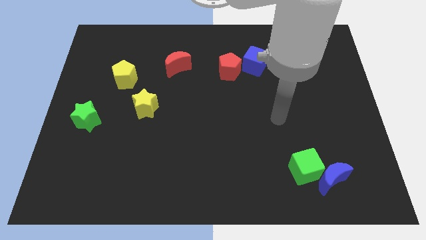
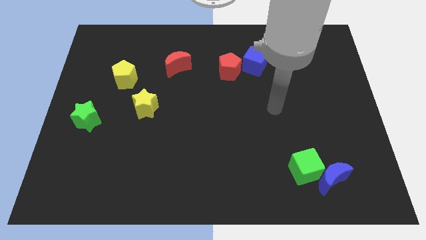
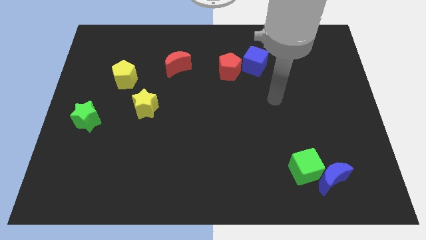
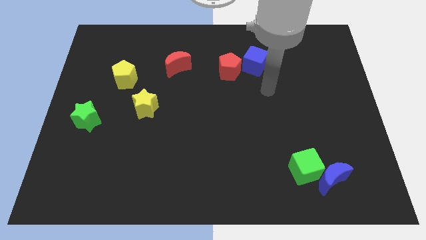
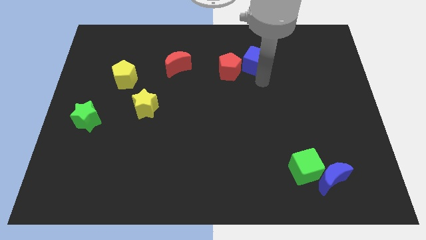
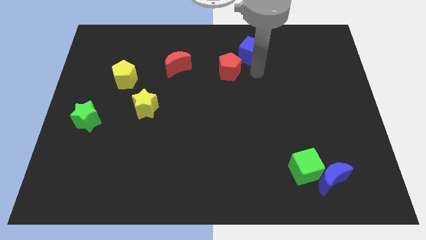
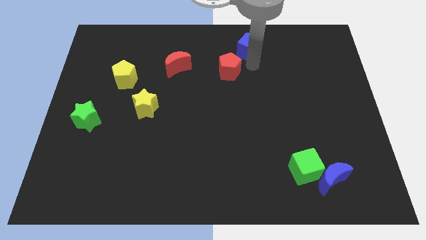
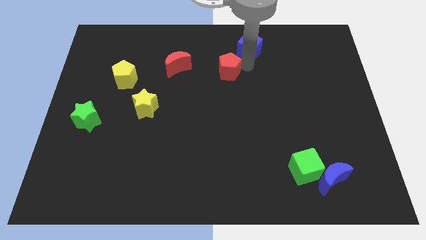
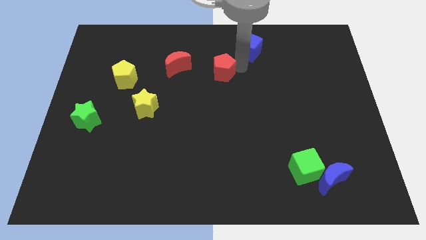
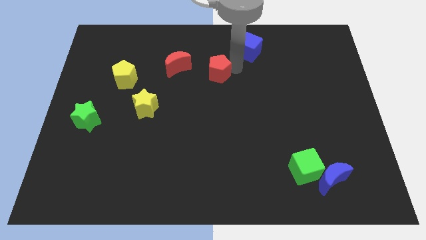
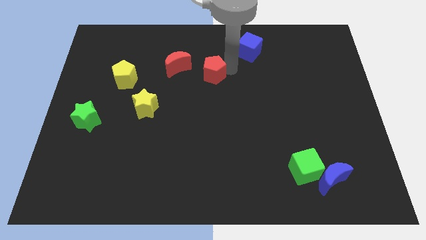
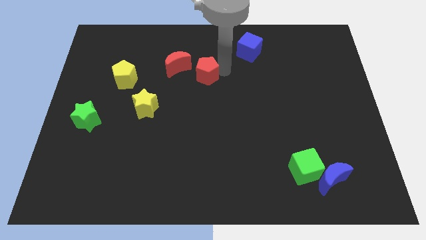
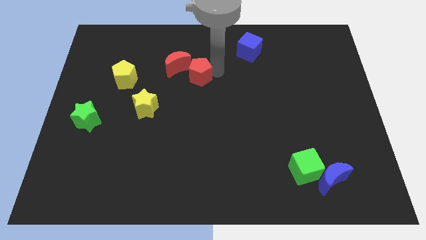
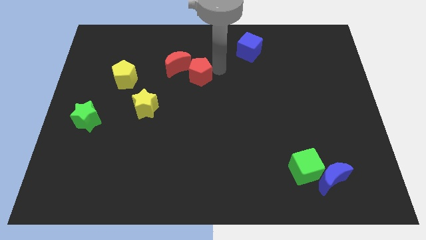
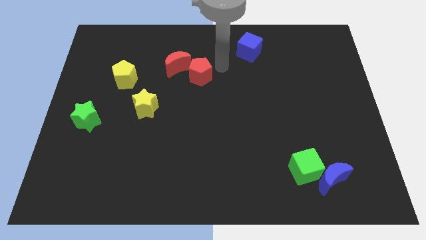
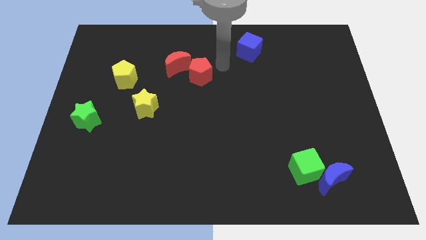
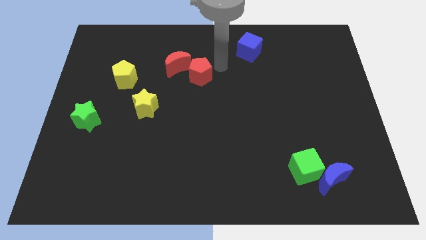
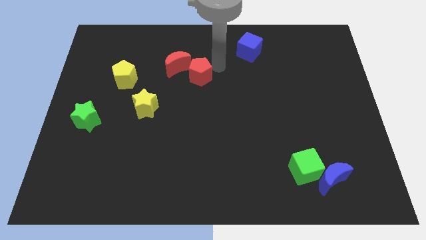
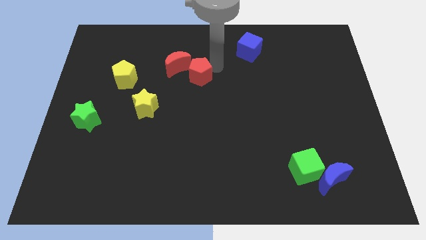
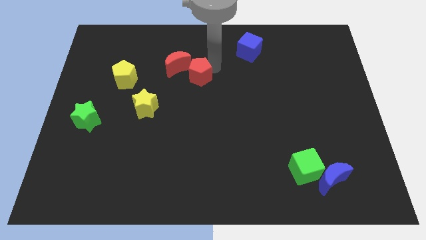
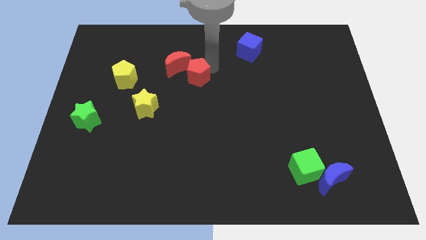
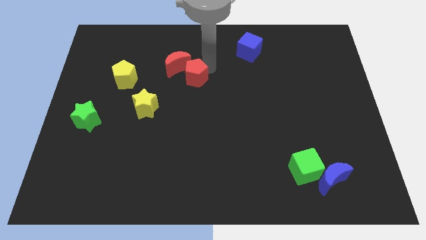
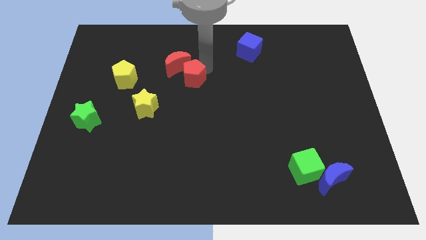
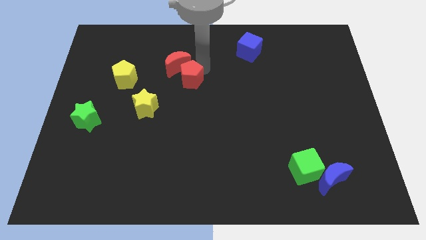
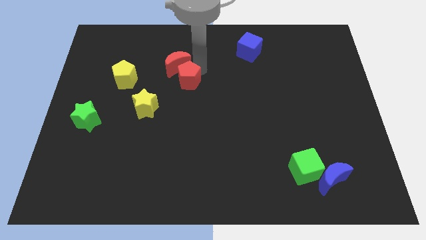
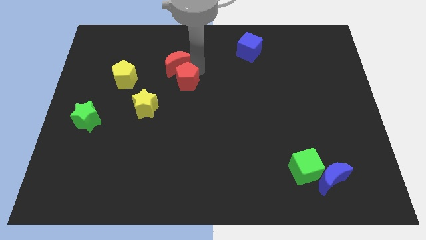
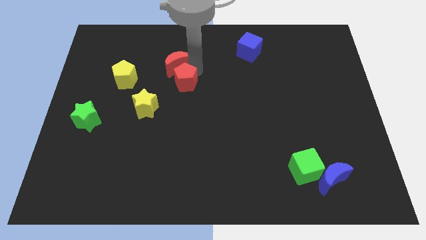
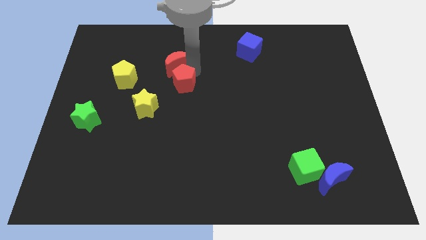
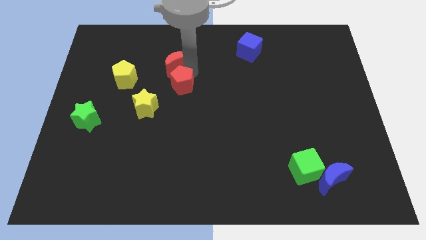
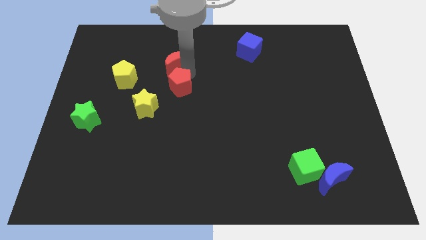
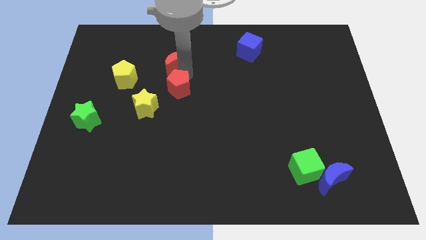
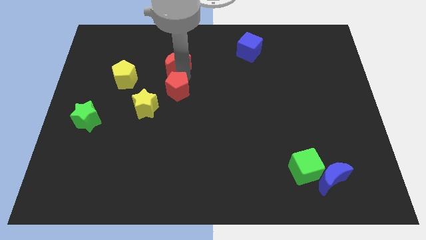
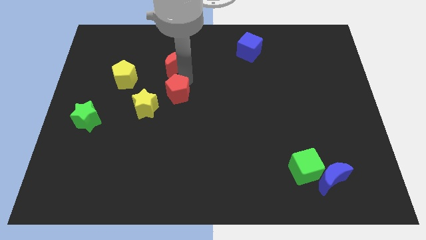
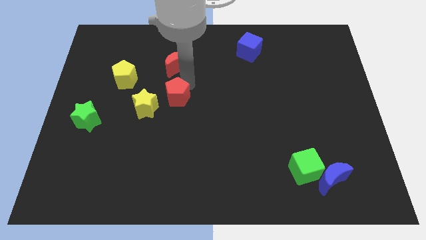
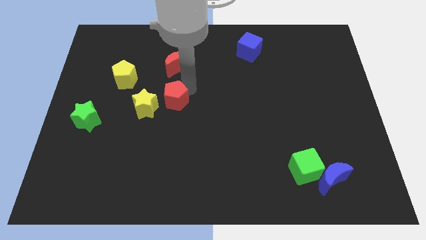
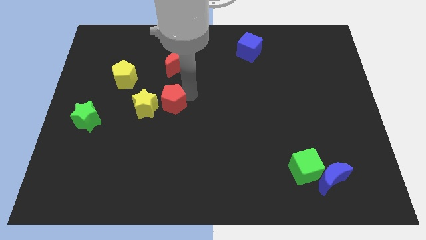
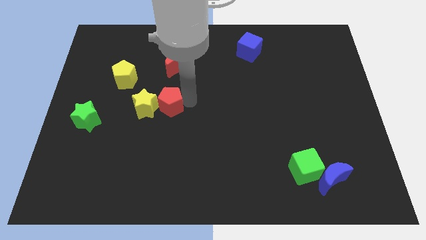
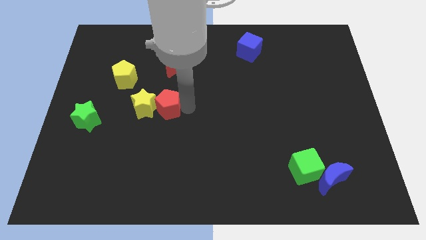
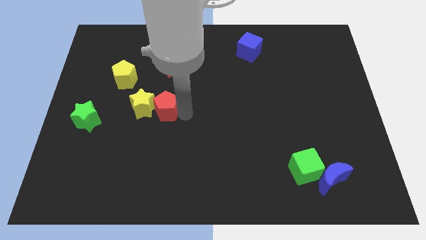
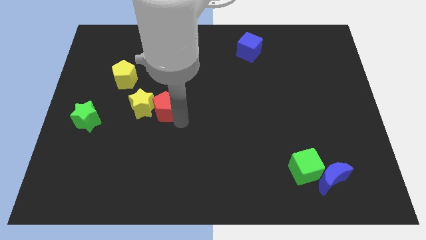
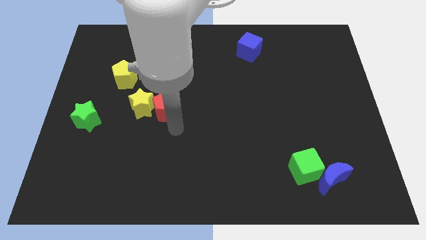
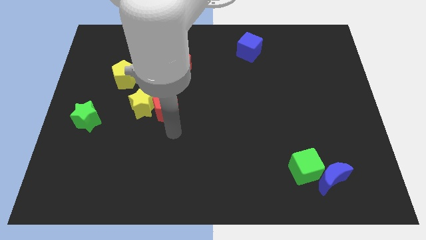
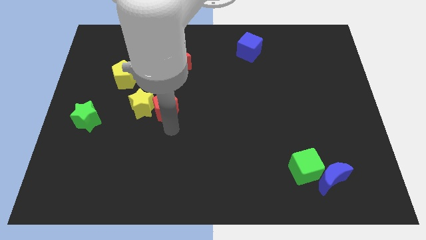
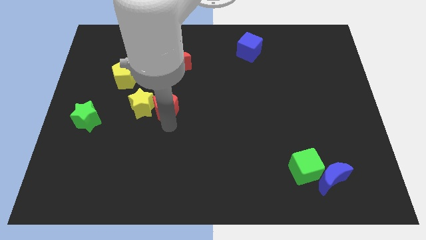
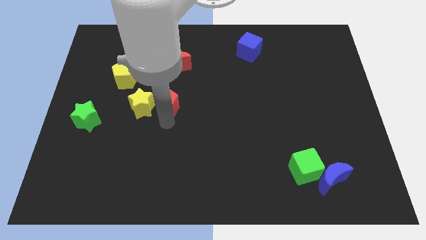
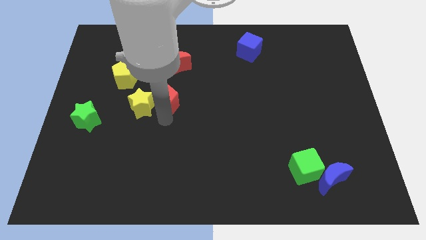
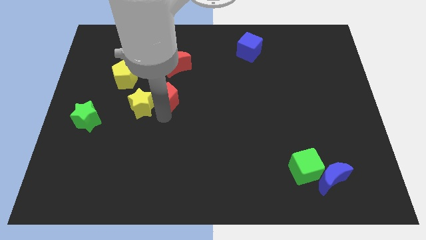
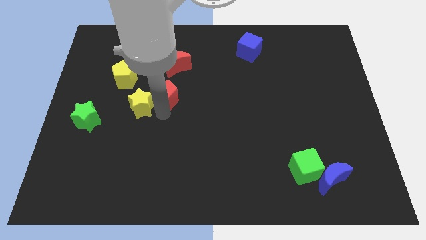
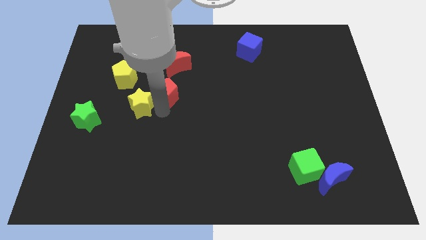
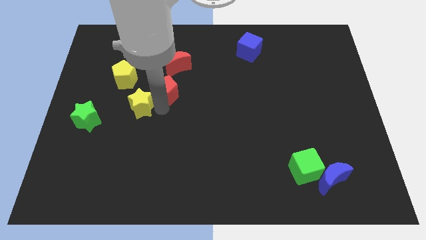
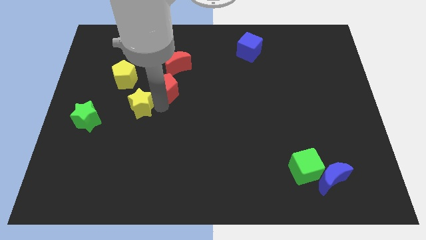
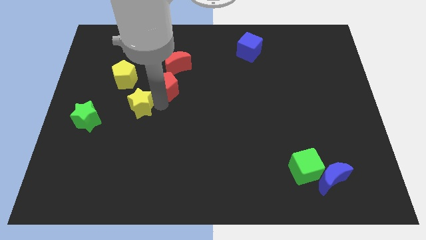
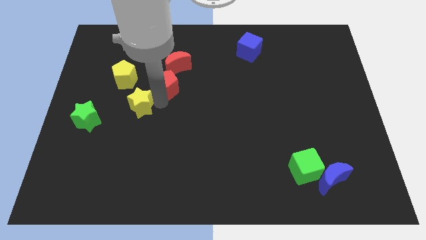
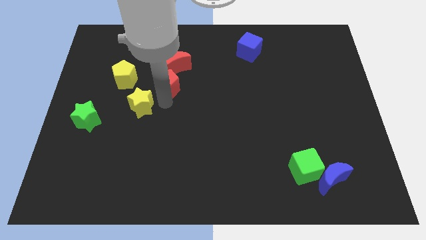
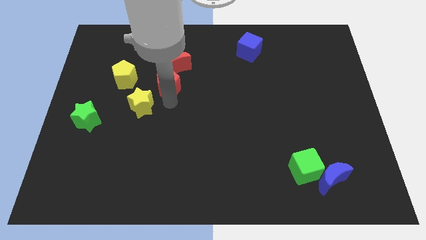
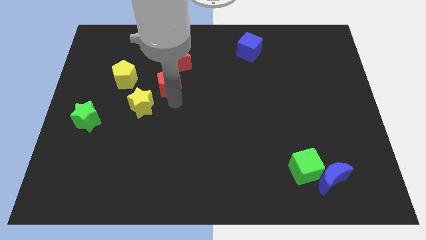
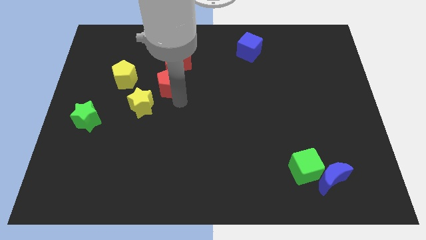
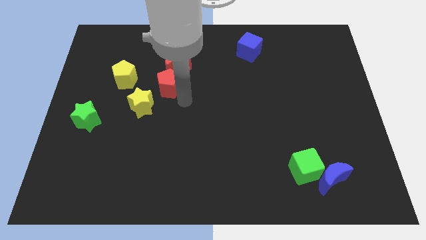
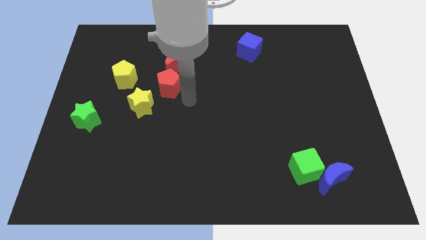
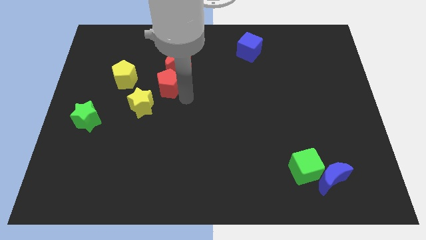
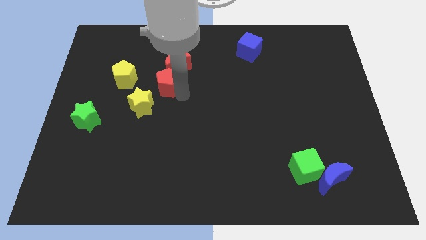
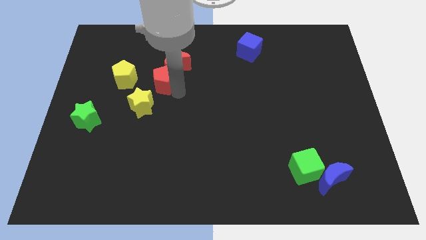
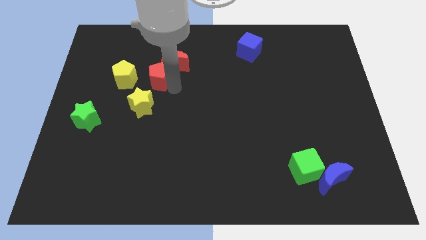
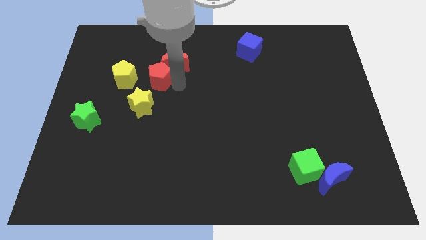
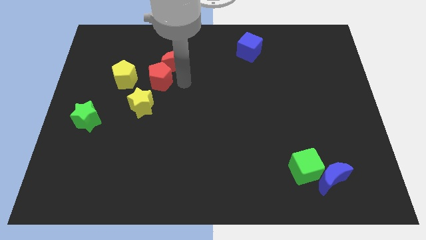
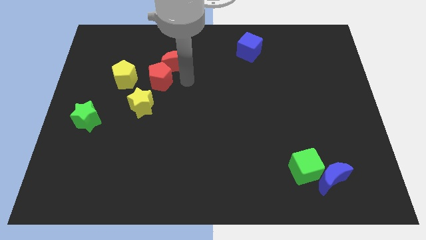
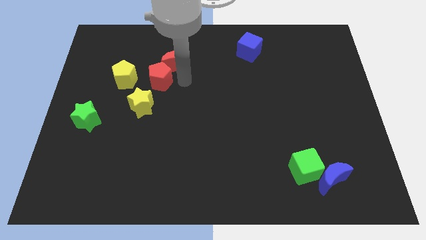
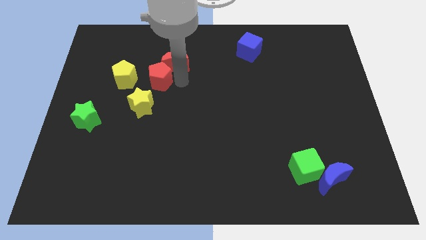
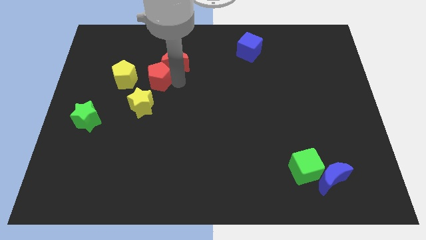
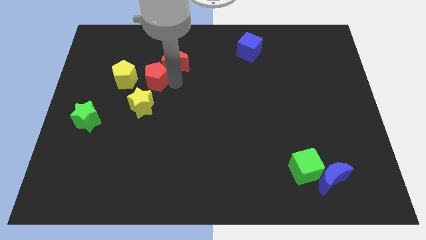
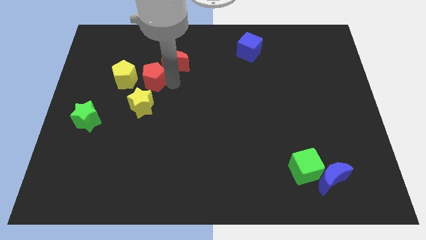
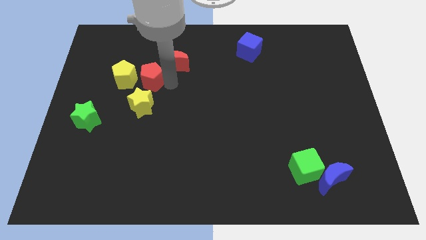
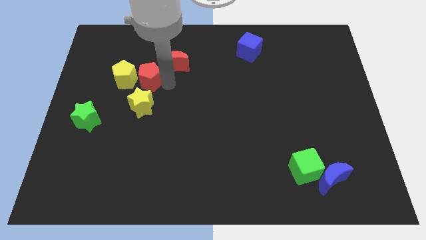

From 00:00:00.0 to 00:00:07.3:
put the red pentagon to the yellow pentagon

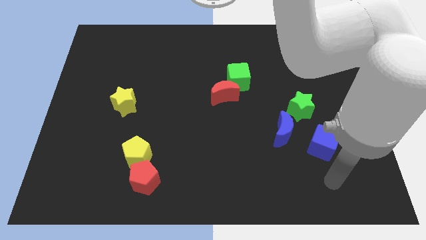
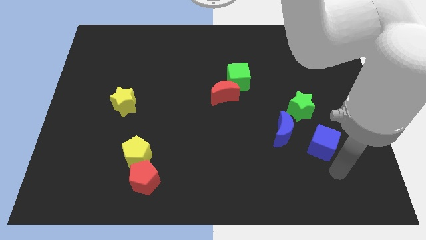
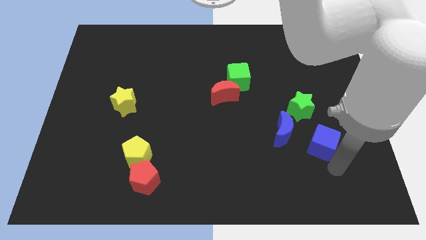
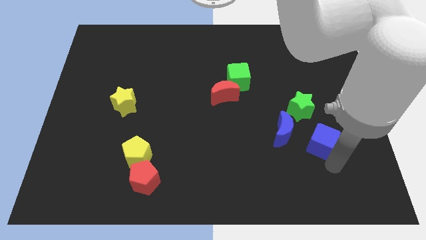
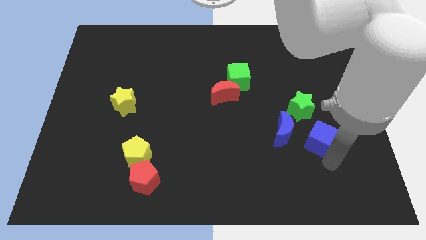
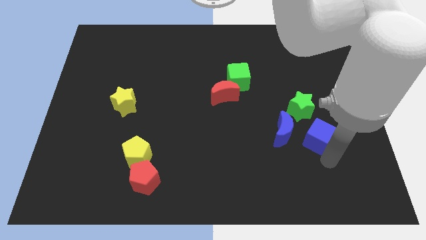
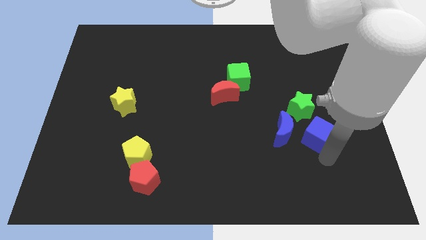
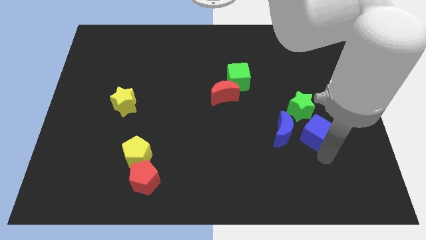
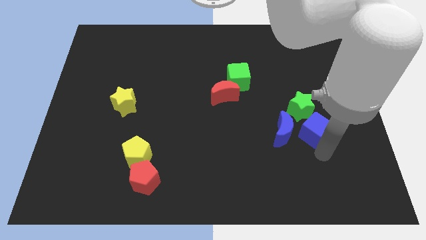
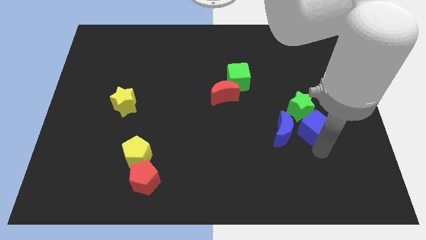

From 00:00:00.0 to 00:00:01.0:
put the blue cube towards the green star
